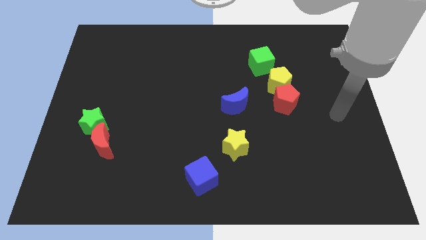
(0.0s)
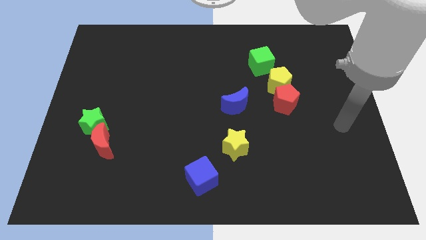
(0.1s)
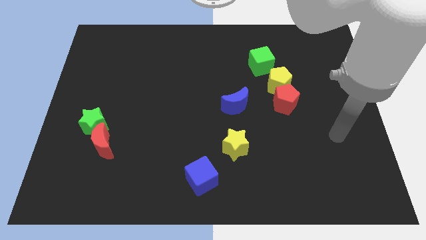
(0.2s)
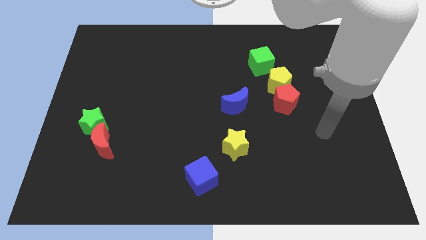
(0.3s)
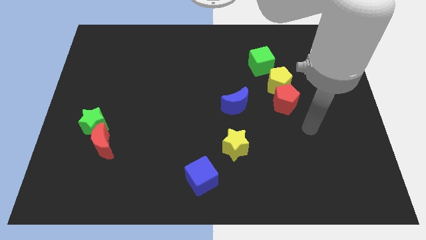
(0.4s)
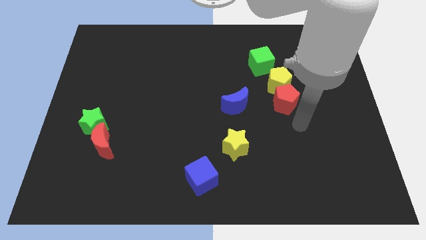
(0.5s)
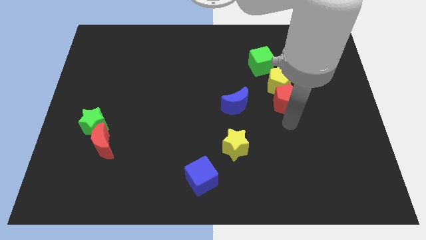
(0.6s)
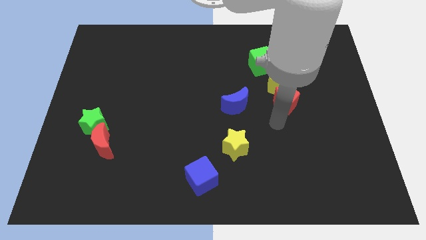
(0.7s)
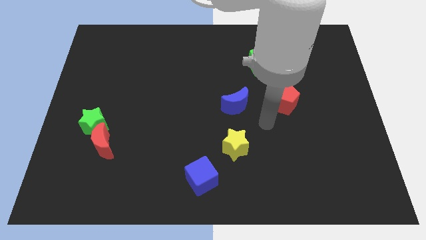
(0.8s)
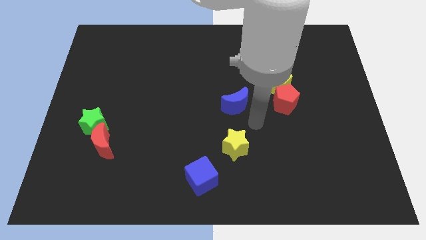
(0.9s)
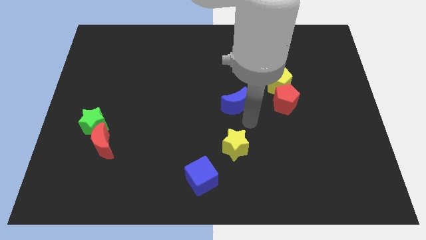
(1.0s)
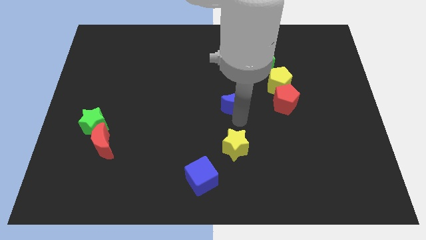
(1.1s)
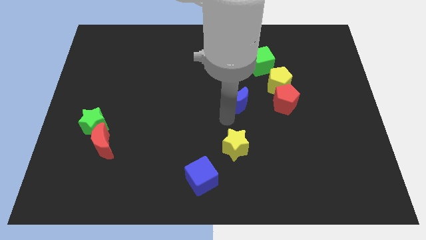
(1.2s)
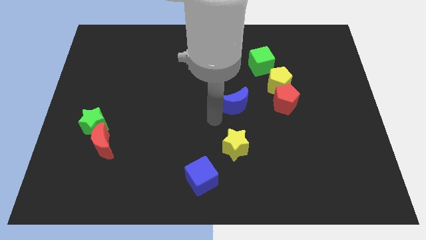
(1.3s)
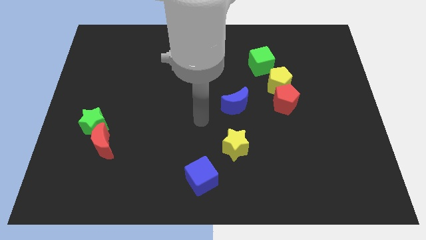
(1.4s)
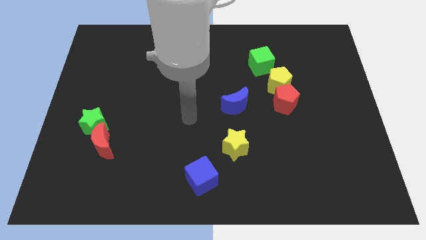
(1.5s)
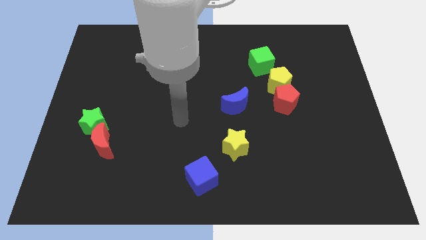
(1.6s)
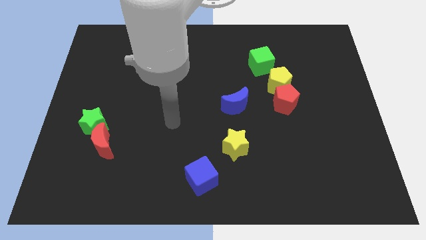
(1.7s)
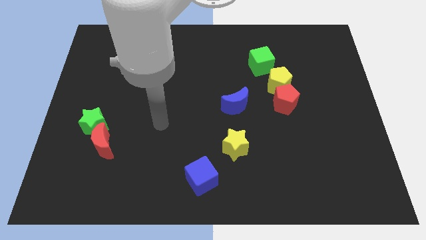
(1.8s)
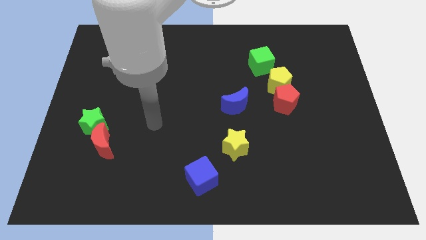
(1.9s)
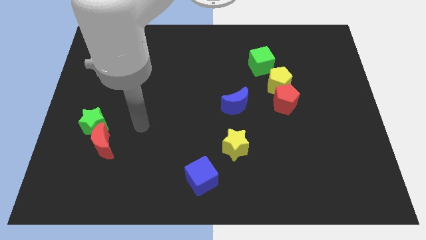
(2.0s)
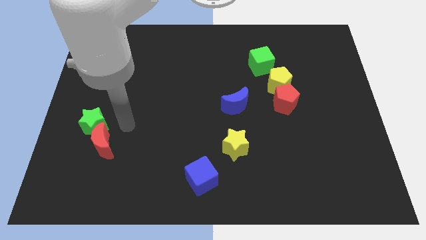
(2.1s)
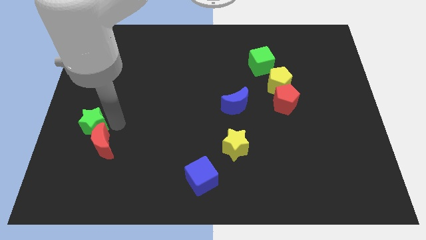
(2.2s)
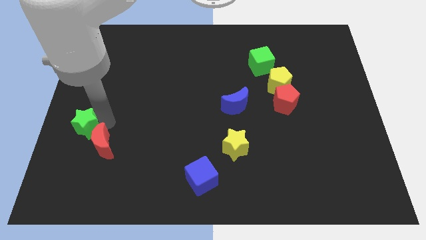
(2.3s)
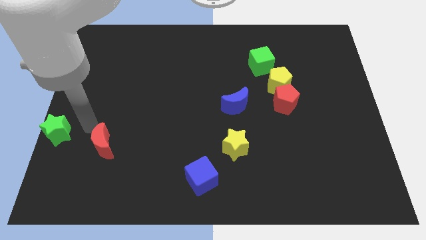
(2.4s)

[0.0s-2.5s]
separate the red moon from the green star

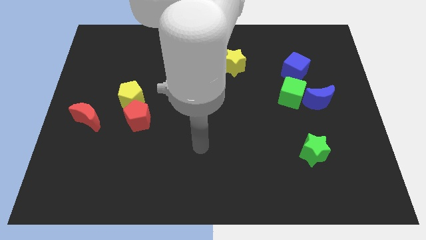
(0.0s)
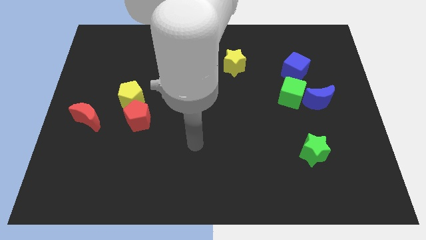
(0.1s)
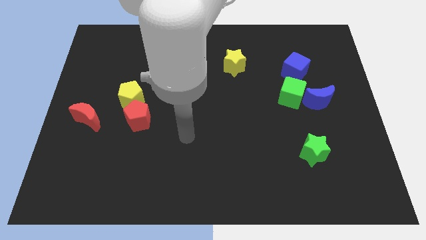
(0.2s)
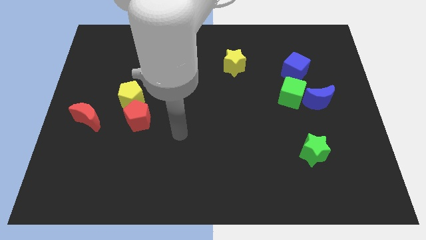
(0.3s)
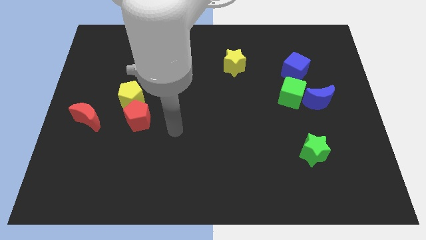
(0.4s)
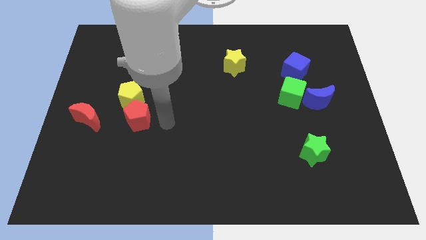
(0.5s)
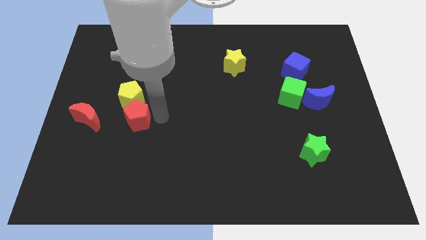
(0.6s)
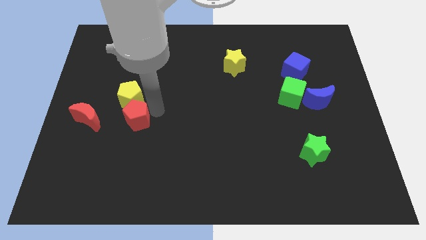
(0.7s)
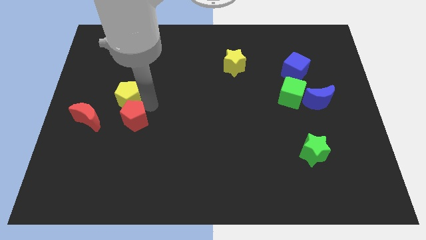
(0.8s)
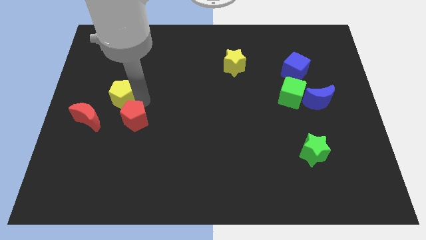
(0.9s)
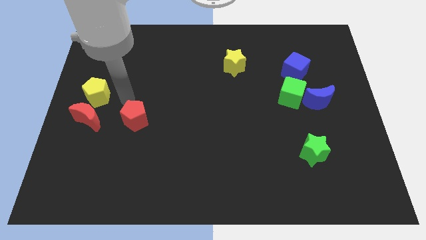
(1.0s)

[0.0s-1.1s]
move the red pentagon away from the yellow pentagon

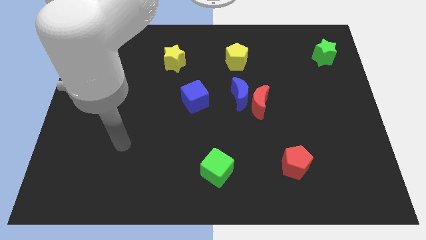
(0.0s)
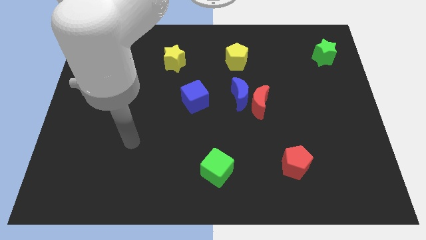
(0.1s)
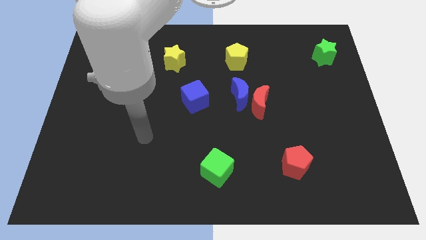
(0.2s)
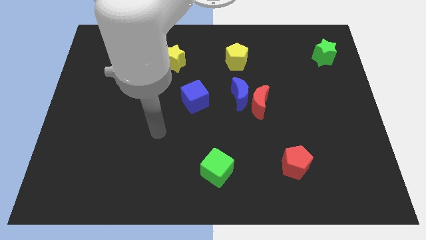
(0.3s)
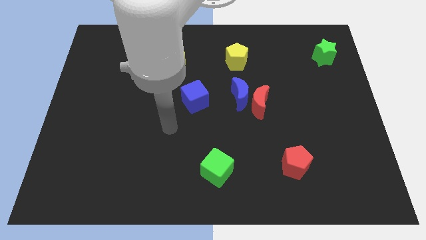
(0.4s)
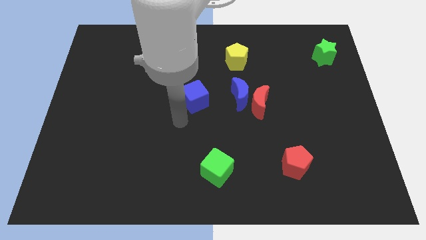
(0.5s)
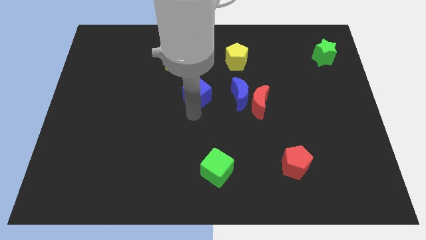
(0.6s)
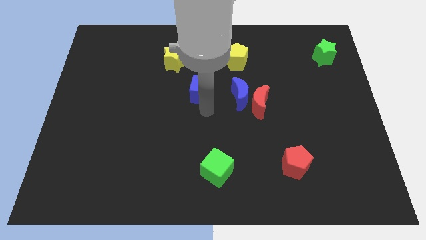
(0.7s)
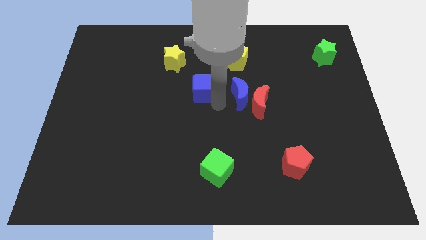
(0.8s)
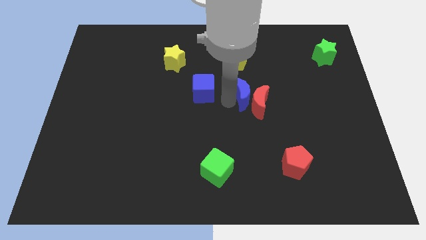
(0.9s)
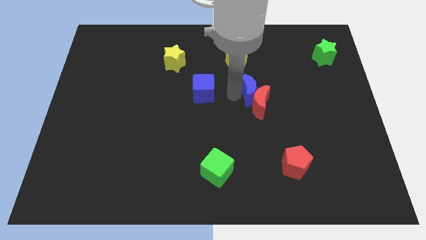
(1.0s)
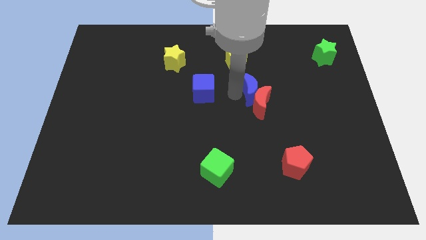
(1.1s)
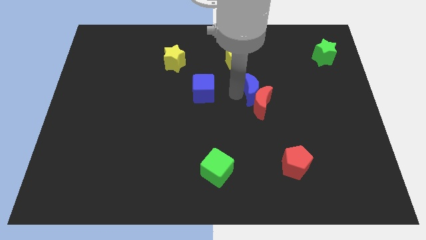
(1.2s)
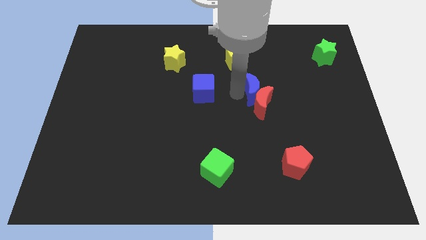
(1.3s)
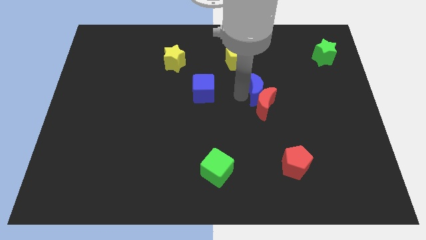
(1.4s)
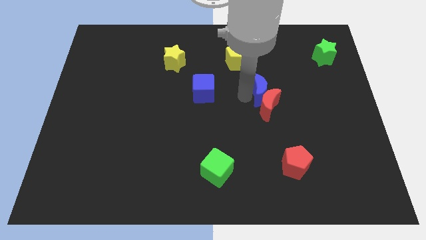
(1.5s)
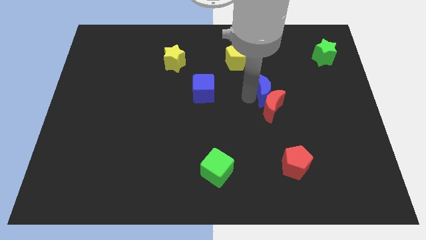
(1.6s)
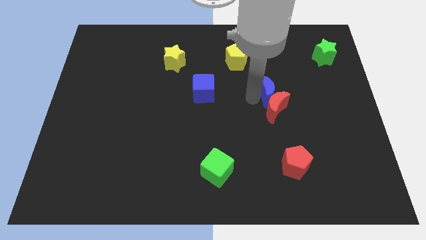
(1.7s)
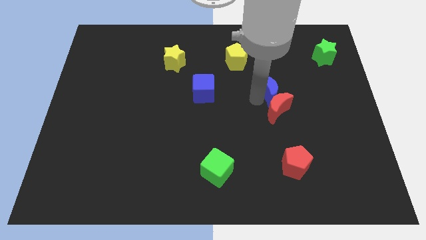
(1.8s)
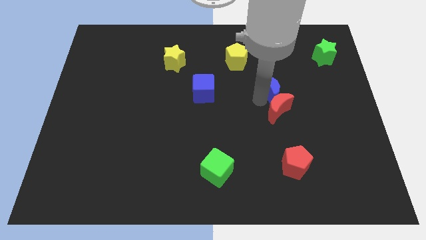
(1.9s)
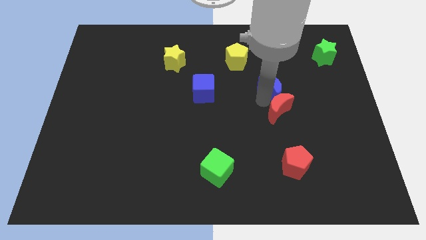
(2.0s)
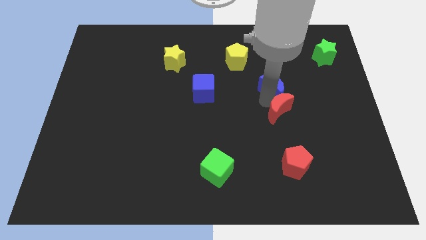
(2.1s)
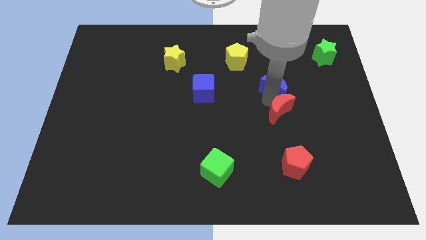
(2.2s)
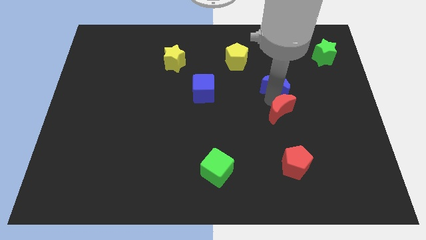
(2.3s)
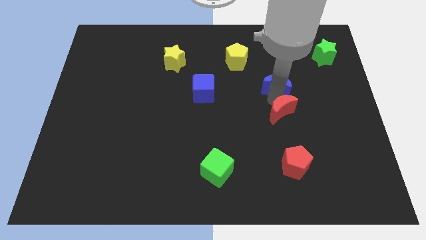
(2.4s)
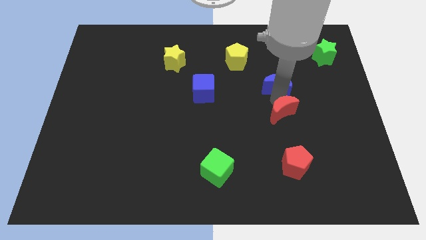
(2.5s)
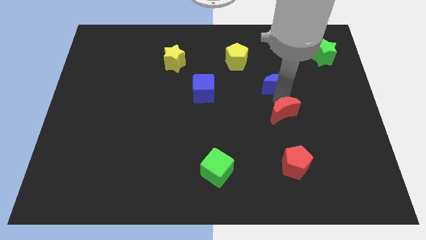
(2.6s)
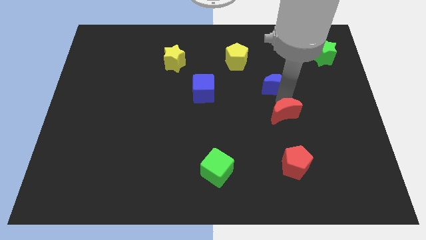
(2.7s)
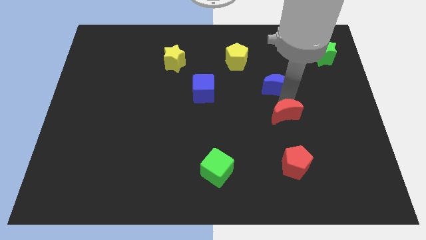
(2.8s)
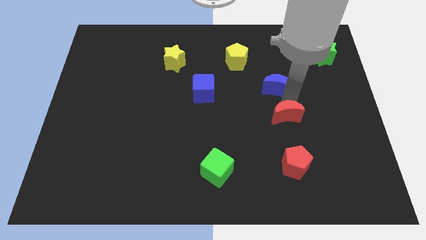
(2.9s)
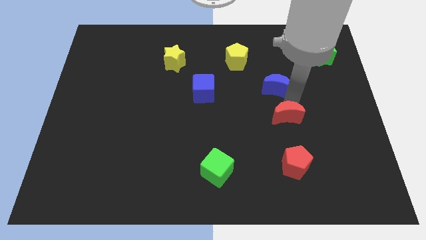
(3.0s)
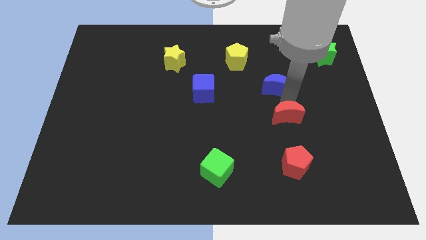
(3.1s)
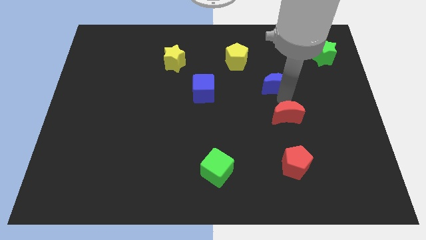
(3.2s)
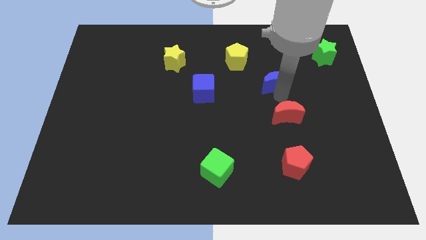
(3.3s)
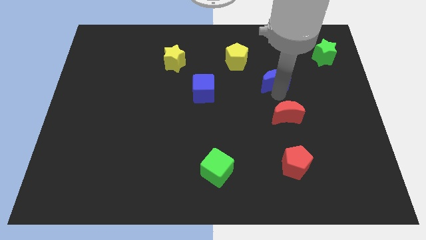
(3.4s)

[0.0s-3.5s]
separate the red moon from the blue moon

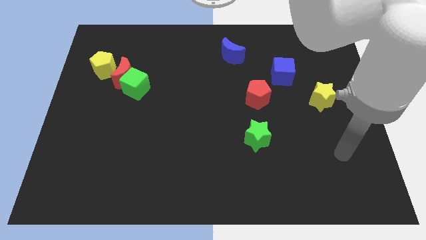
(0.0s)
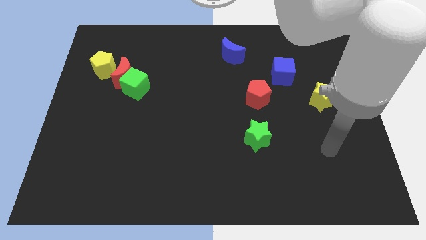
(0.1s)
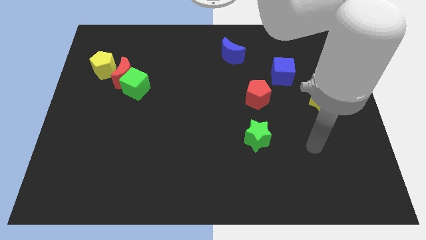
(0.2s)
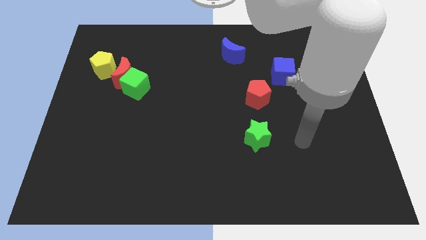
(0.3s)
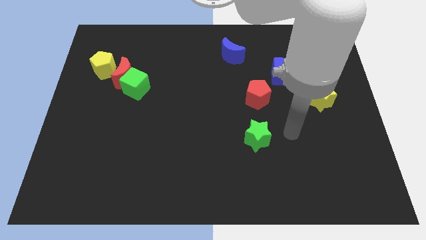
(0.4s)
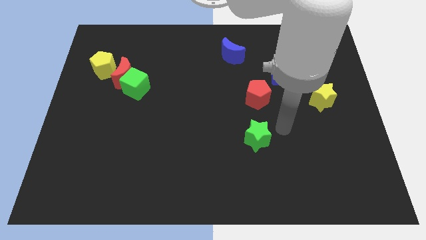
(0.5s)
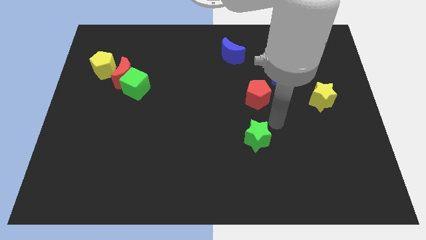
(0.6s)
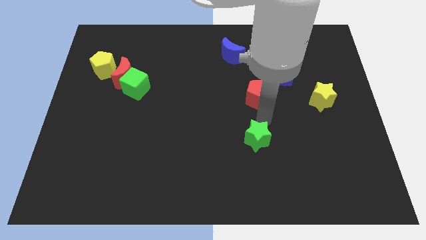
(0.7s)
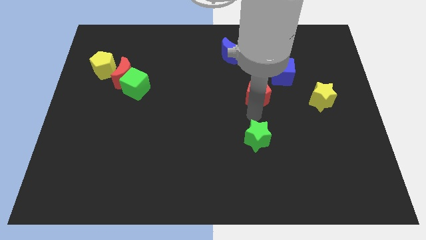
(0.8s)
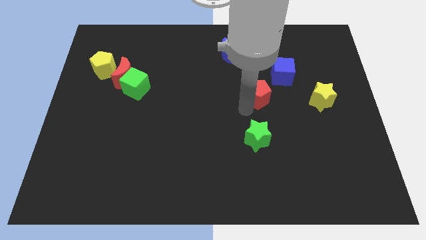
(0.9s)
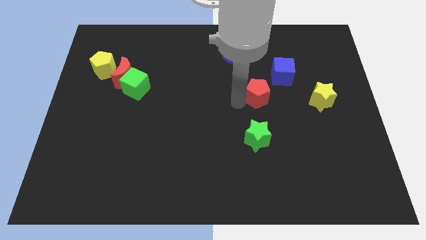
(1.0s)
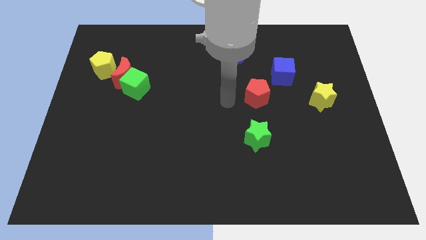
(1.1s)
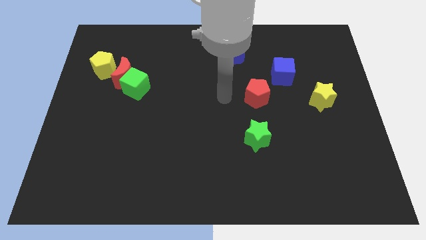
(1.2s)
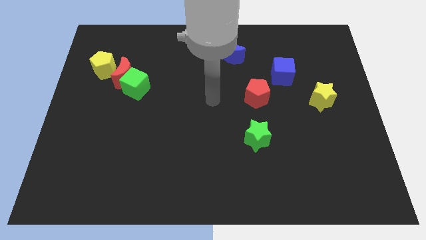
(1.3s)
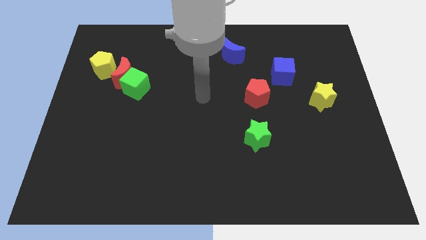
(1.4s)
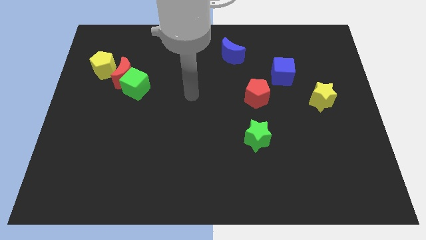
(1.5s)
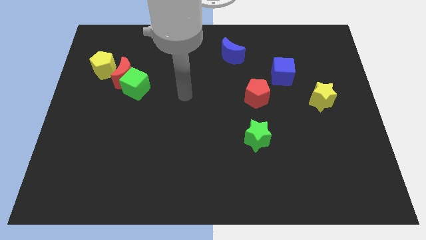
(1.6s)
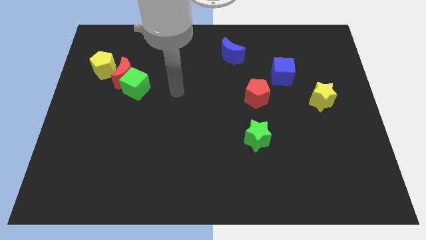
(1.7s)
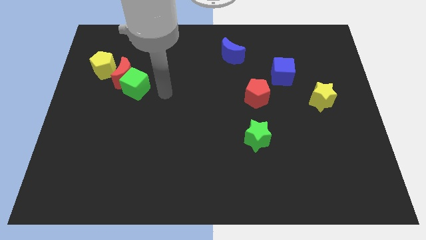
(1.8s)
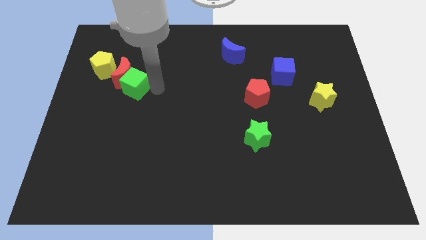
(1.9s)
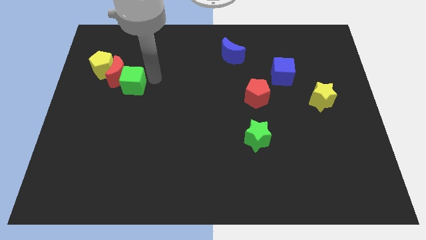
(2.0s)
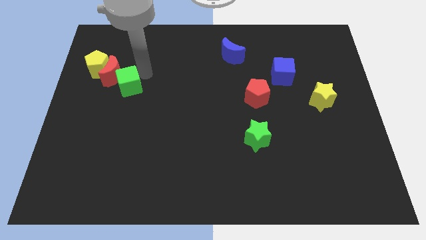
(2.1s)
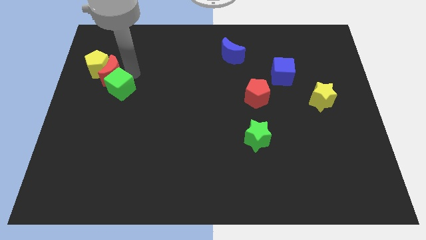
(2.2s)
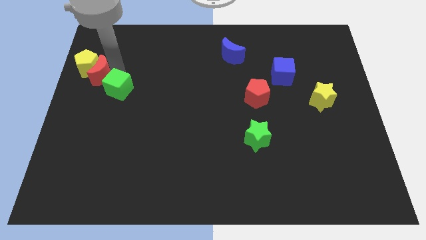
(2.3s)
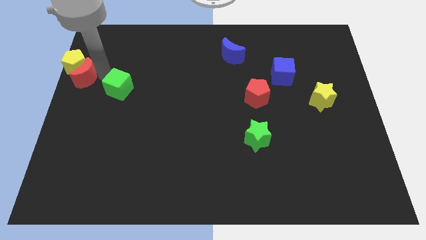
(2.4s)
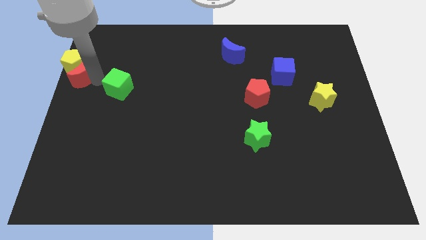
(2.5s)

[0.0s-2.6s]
separate the green cube from the red moon
